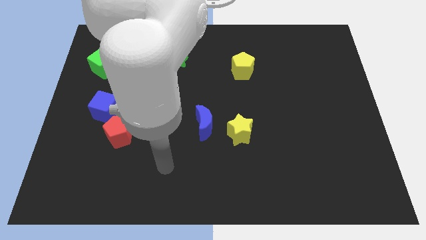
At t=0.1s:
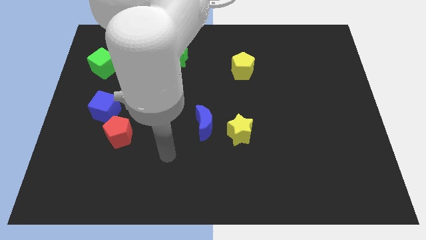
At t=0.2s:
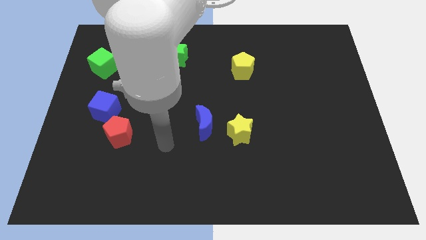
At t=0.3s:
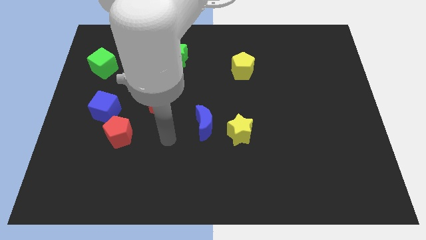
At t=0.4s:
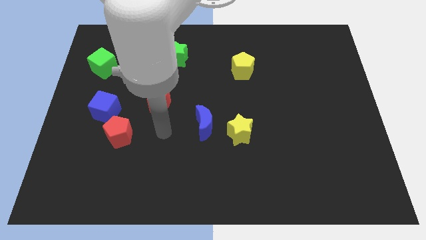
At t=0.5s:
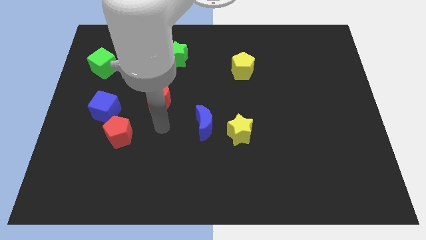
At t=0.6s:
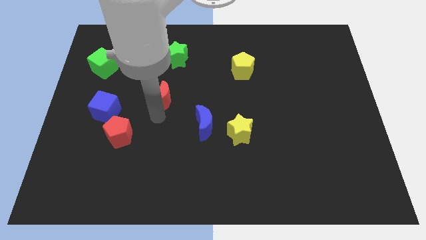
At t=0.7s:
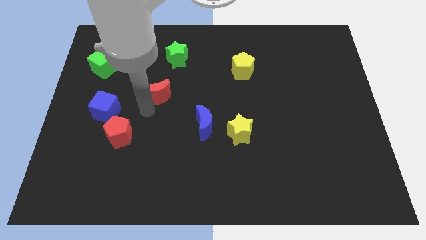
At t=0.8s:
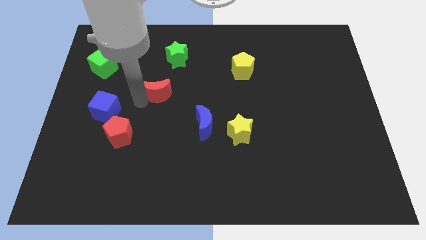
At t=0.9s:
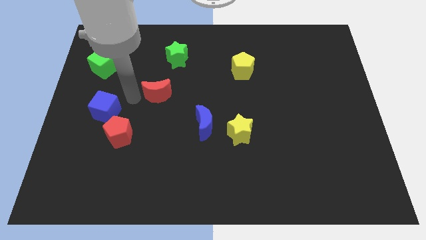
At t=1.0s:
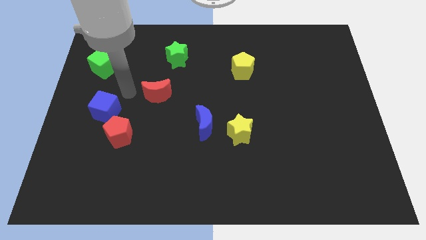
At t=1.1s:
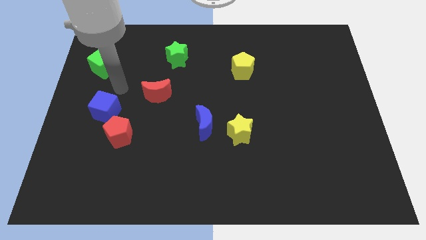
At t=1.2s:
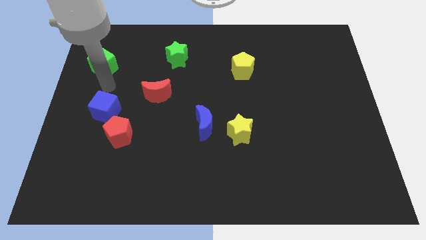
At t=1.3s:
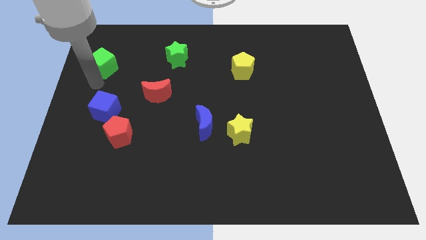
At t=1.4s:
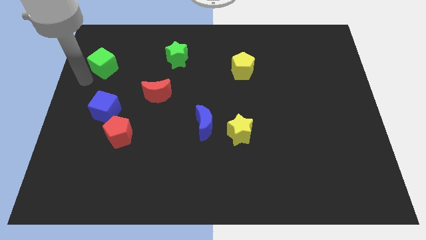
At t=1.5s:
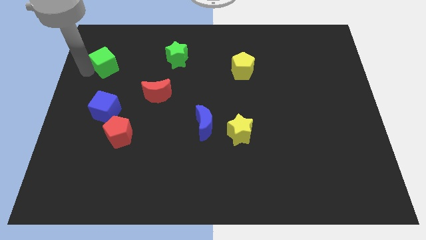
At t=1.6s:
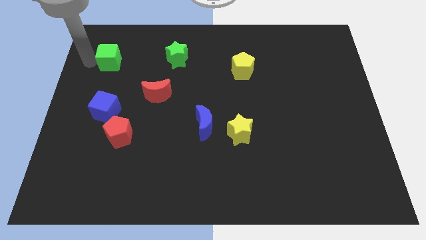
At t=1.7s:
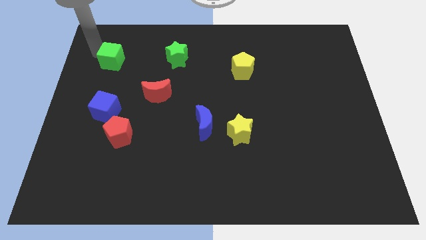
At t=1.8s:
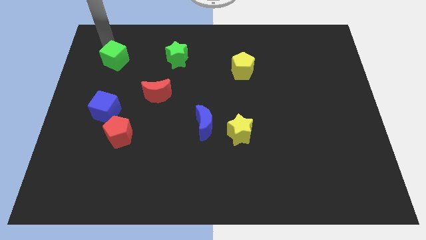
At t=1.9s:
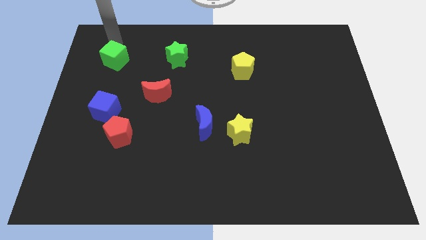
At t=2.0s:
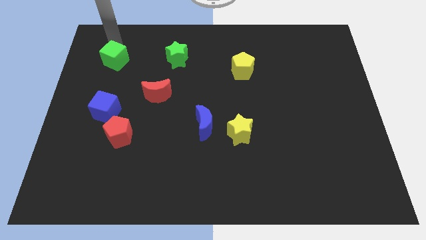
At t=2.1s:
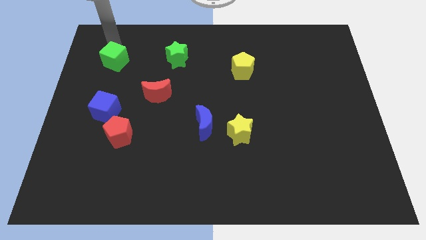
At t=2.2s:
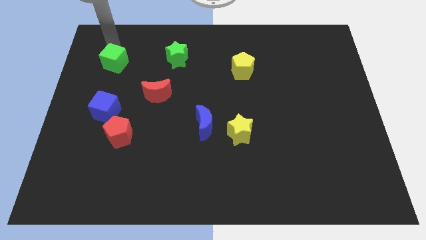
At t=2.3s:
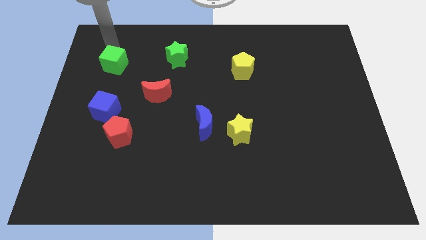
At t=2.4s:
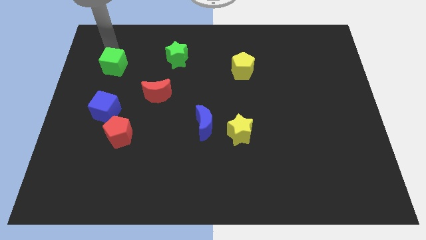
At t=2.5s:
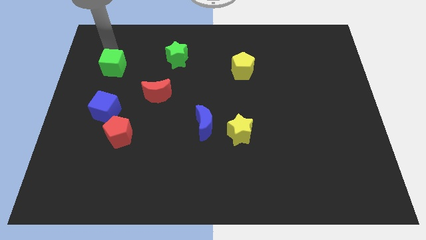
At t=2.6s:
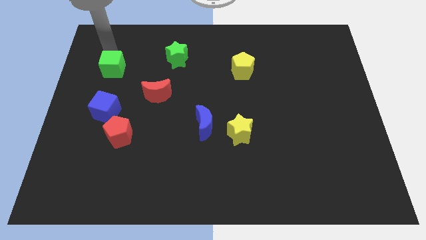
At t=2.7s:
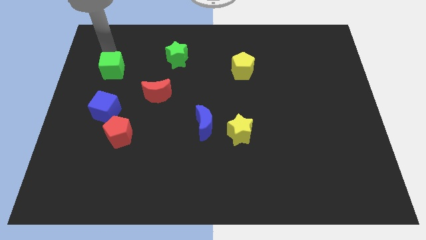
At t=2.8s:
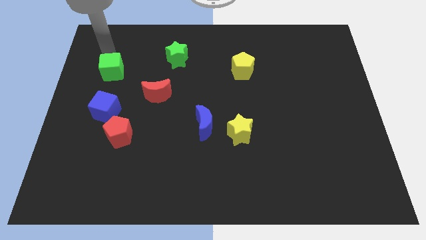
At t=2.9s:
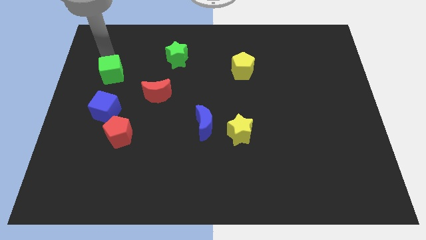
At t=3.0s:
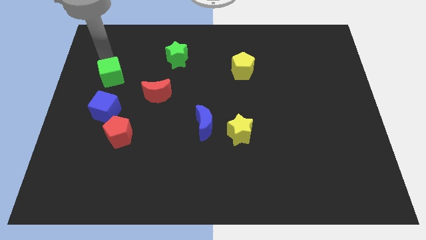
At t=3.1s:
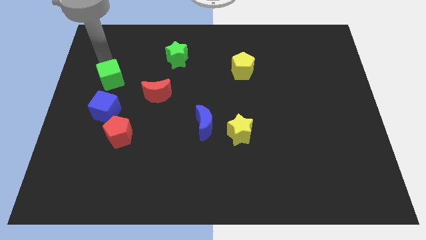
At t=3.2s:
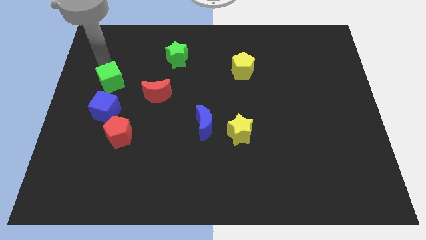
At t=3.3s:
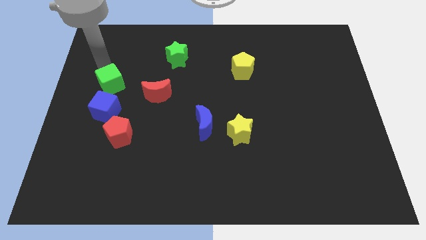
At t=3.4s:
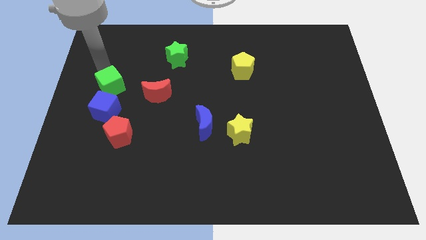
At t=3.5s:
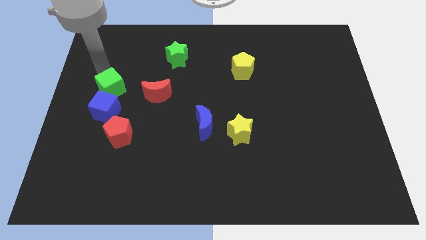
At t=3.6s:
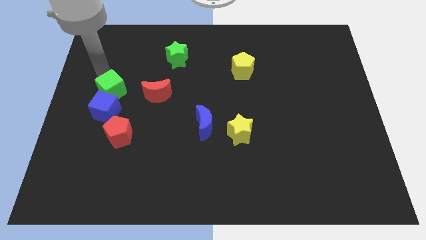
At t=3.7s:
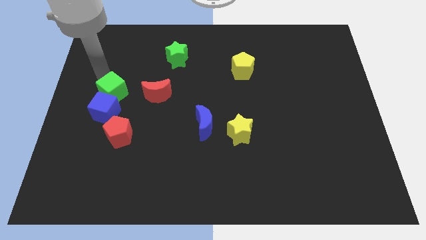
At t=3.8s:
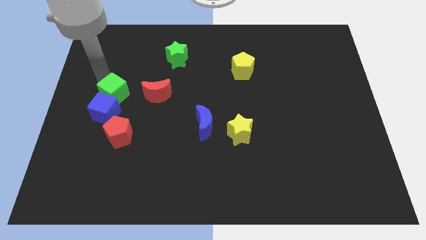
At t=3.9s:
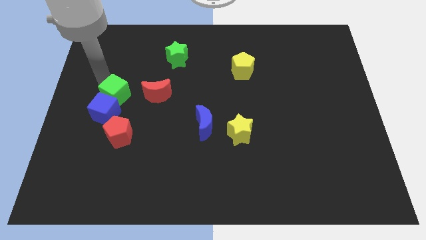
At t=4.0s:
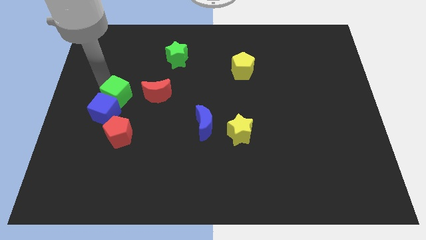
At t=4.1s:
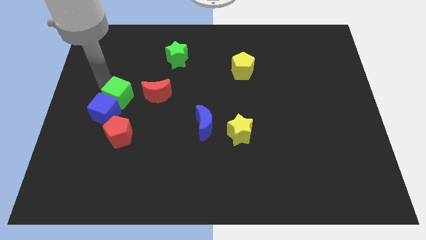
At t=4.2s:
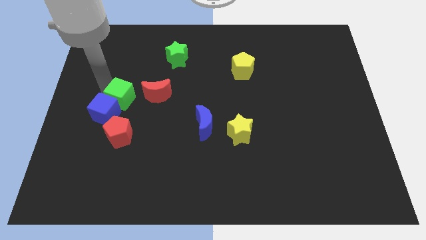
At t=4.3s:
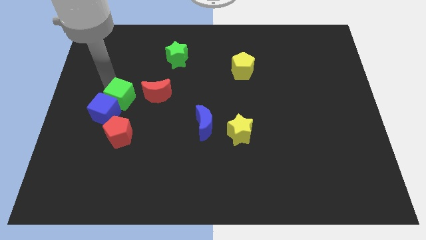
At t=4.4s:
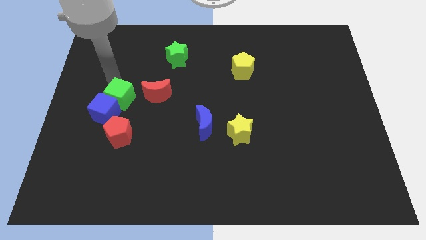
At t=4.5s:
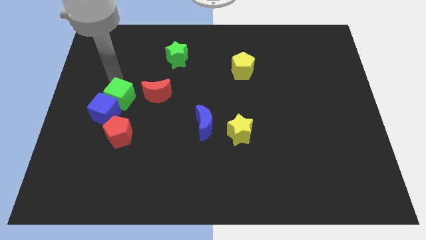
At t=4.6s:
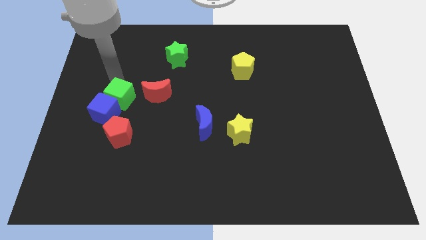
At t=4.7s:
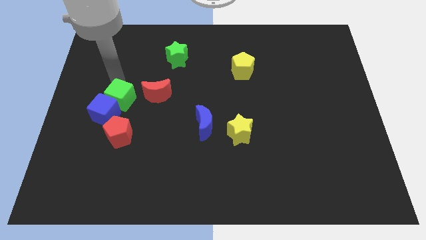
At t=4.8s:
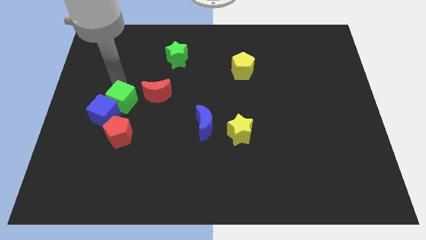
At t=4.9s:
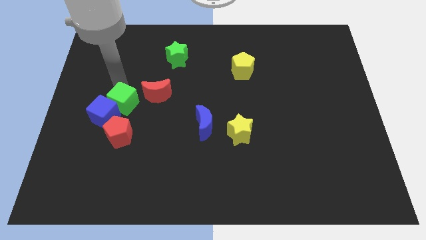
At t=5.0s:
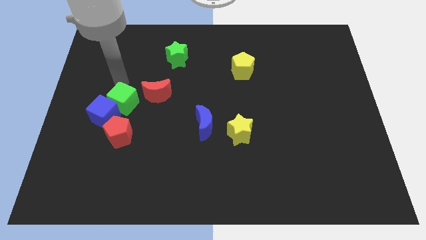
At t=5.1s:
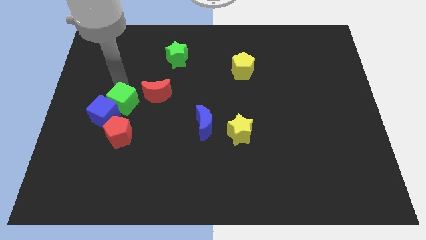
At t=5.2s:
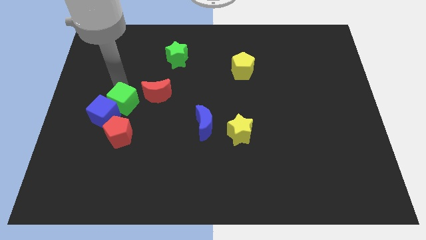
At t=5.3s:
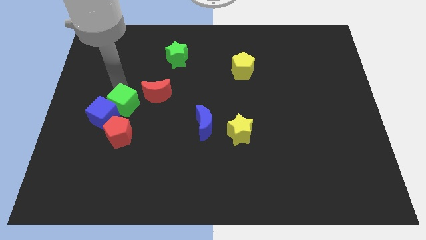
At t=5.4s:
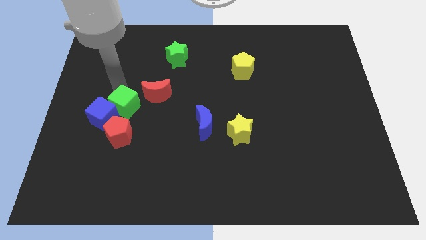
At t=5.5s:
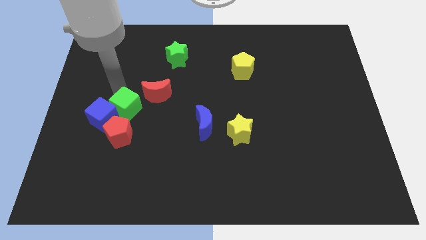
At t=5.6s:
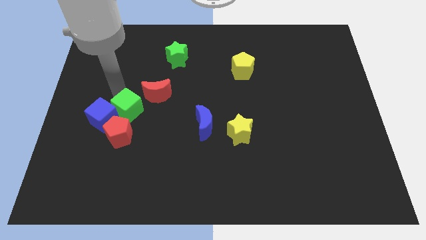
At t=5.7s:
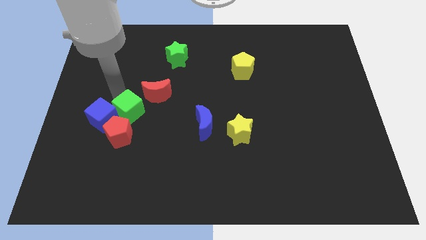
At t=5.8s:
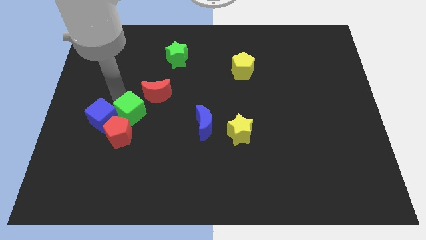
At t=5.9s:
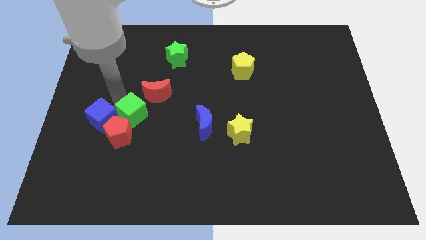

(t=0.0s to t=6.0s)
move the green cube next to the red pentagon
